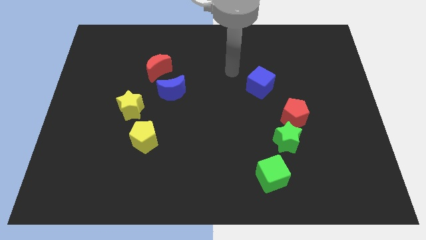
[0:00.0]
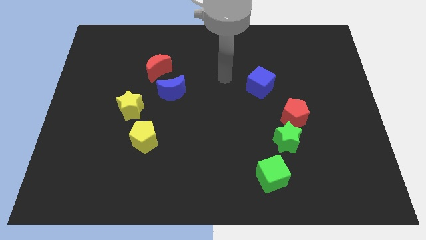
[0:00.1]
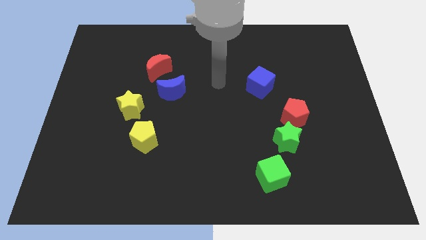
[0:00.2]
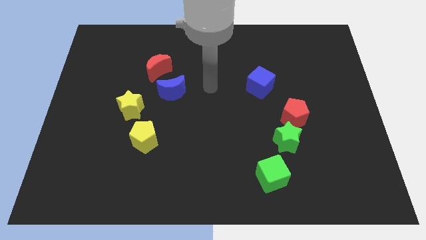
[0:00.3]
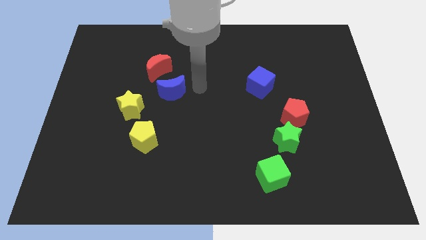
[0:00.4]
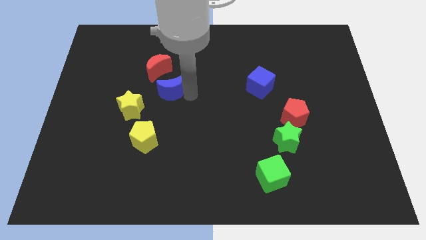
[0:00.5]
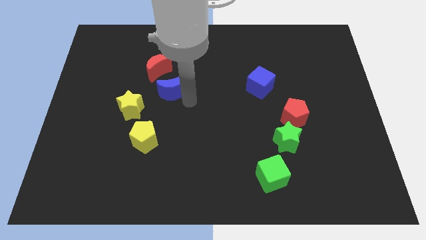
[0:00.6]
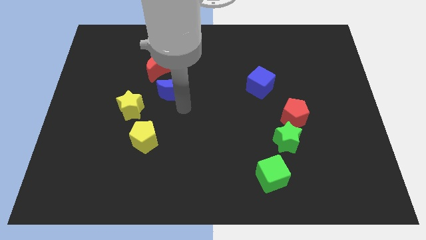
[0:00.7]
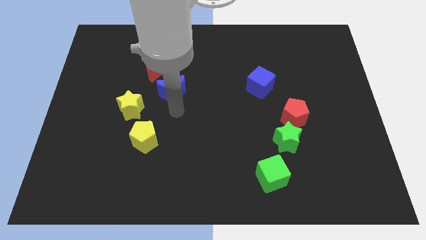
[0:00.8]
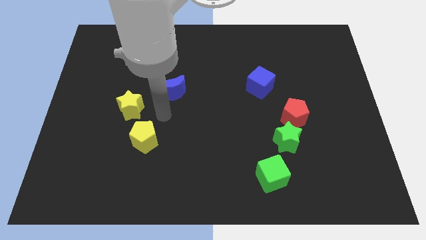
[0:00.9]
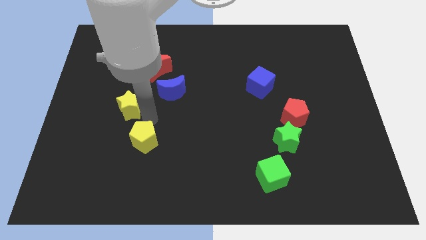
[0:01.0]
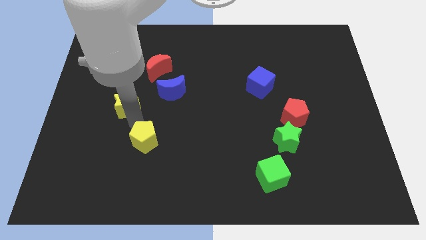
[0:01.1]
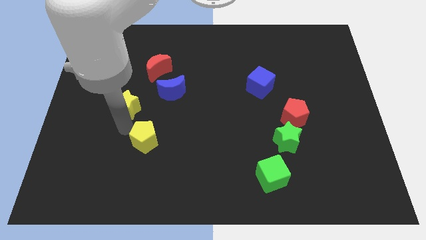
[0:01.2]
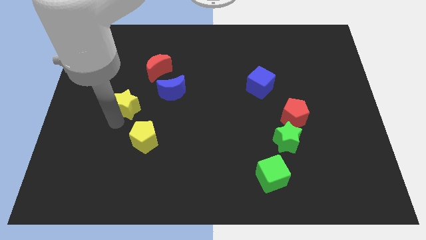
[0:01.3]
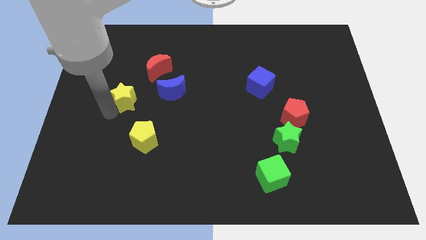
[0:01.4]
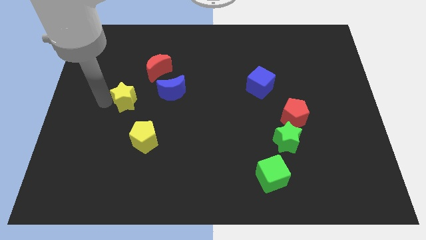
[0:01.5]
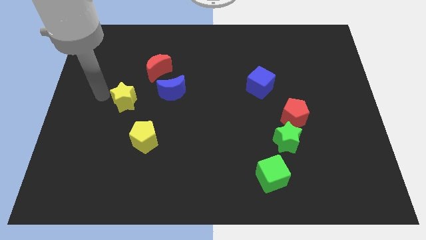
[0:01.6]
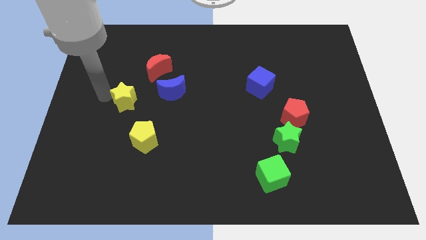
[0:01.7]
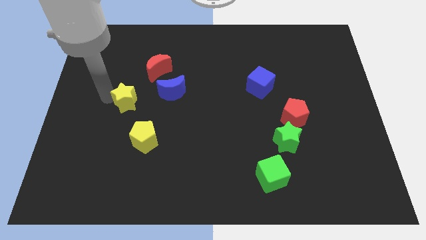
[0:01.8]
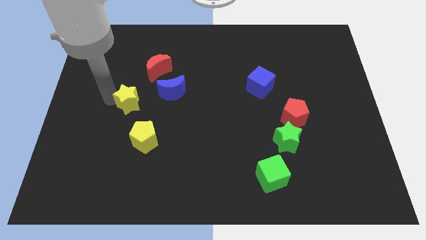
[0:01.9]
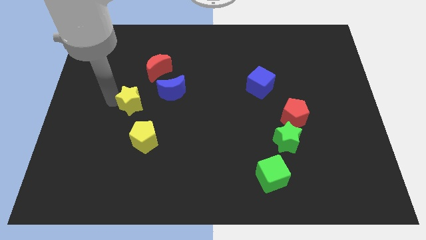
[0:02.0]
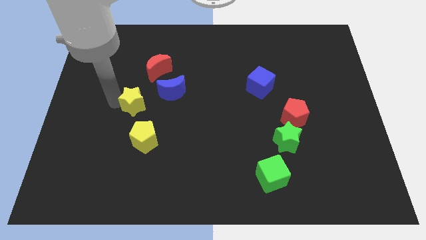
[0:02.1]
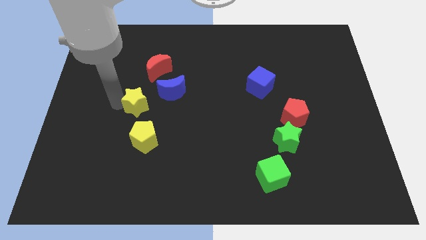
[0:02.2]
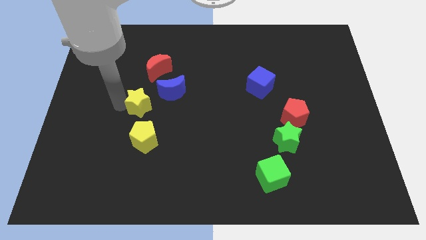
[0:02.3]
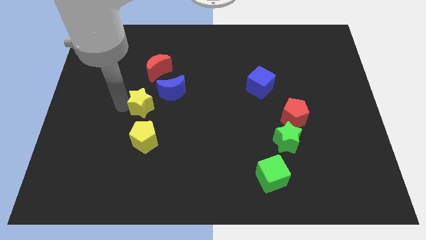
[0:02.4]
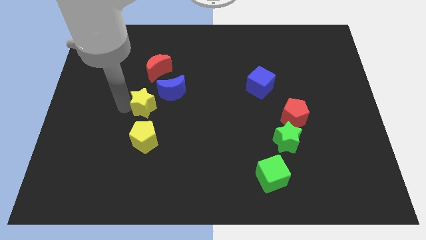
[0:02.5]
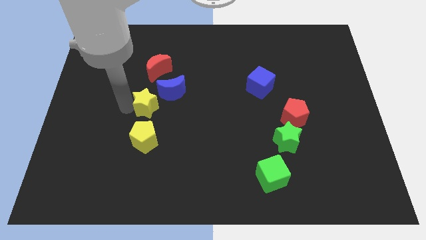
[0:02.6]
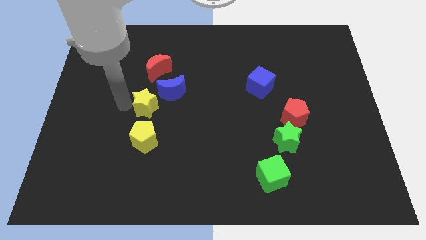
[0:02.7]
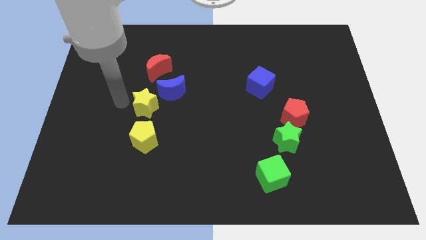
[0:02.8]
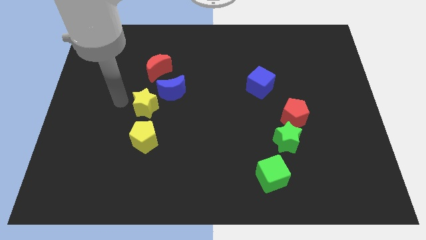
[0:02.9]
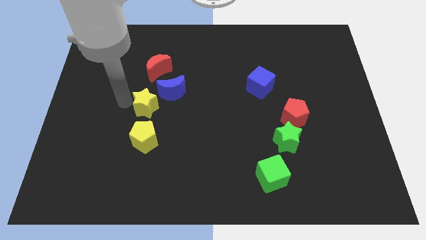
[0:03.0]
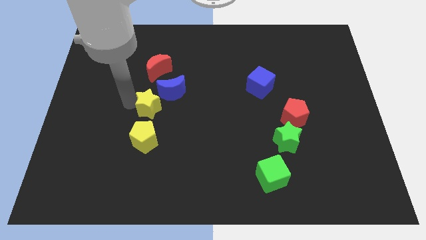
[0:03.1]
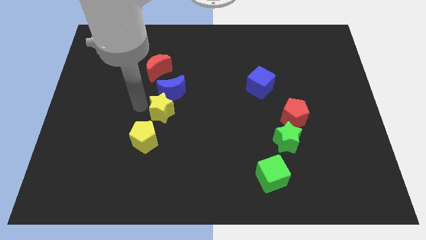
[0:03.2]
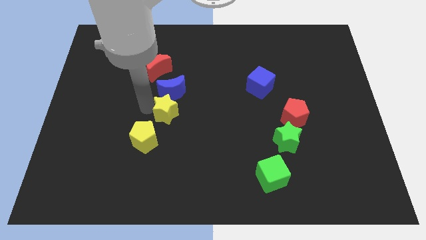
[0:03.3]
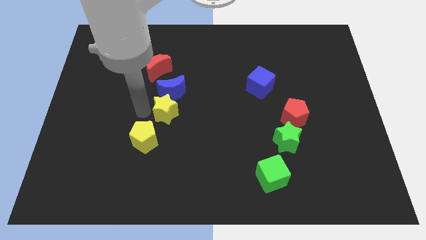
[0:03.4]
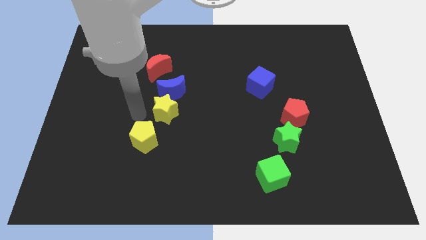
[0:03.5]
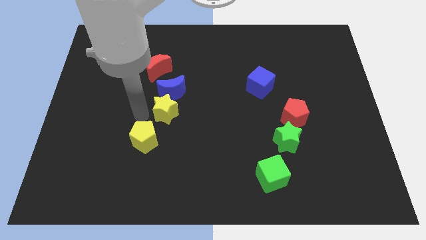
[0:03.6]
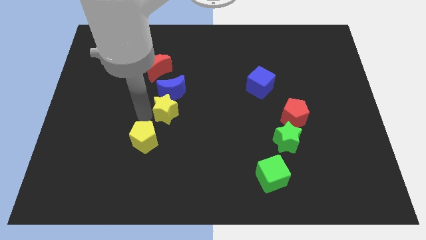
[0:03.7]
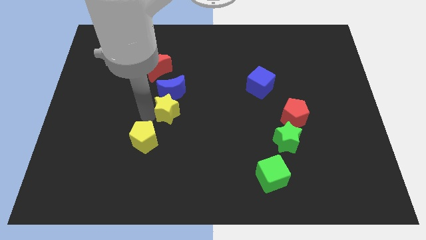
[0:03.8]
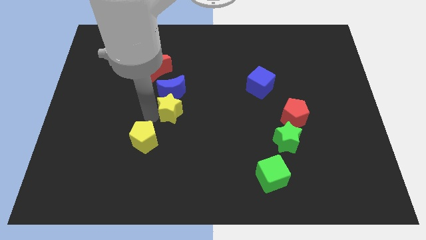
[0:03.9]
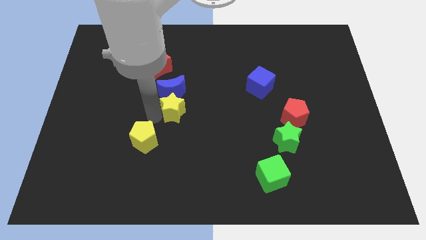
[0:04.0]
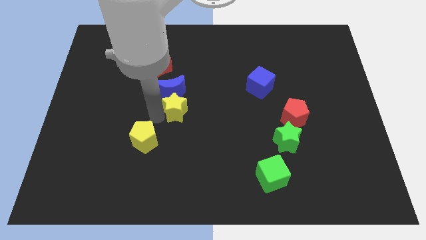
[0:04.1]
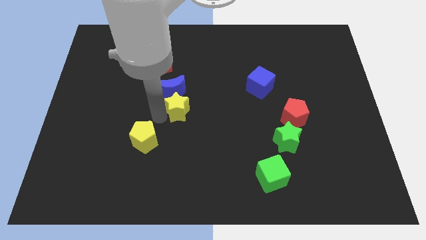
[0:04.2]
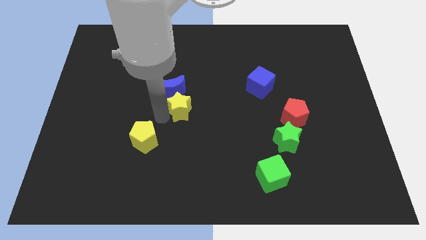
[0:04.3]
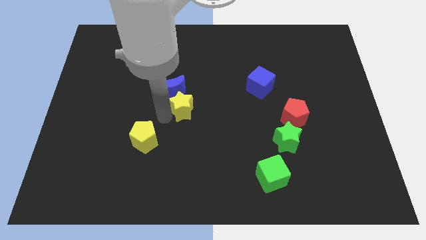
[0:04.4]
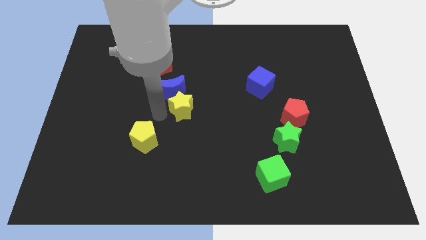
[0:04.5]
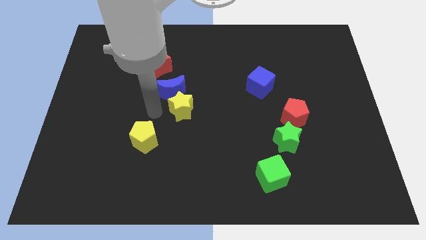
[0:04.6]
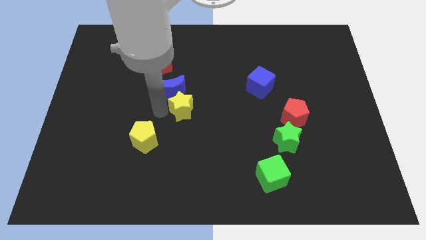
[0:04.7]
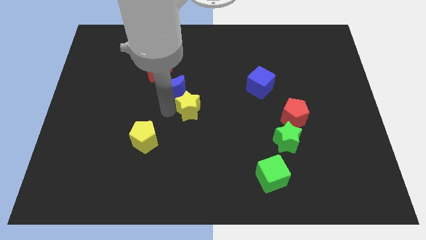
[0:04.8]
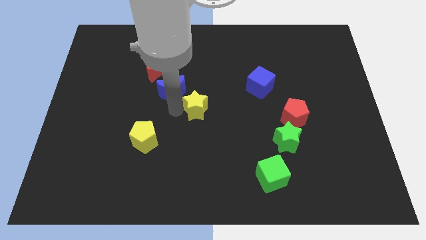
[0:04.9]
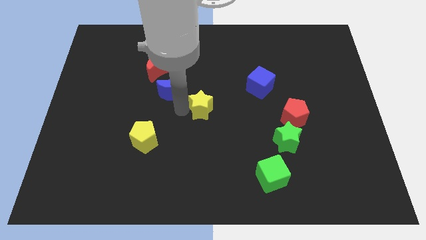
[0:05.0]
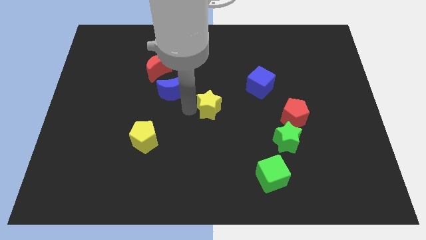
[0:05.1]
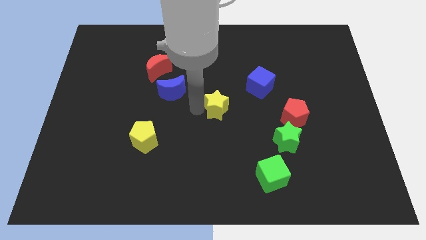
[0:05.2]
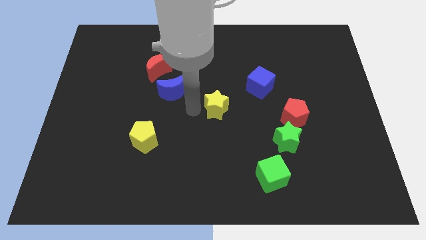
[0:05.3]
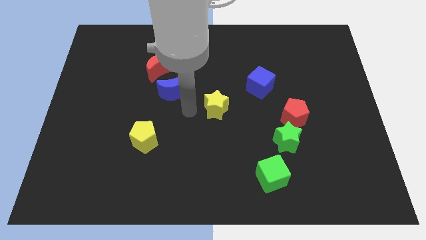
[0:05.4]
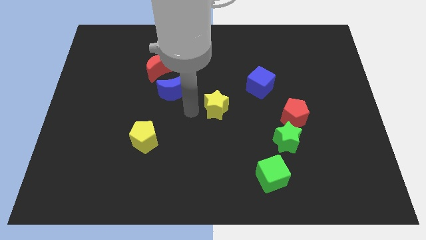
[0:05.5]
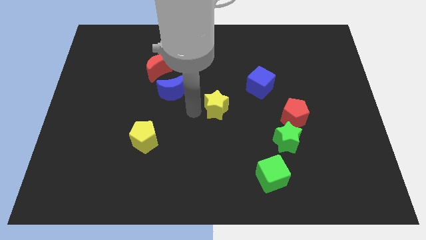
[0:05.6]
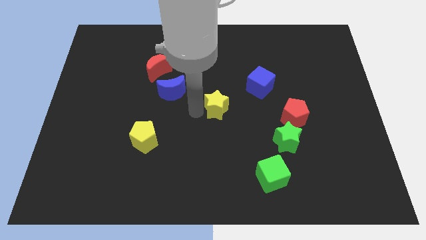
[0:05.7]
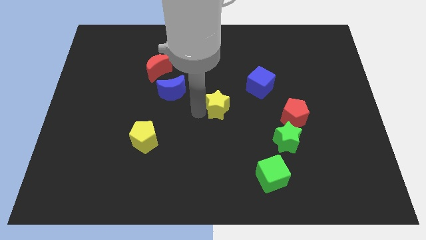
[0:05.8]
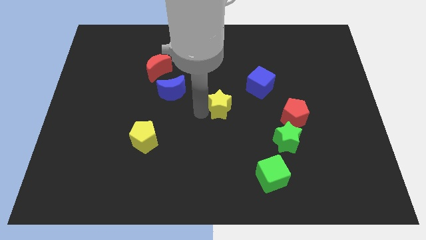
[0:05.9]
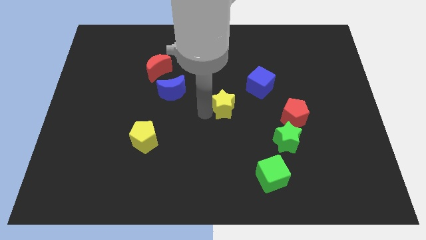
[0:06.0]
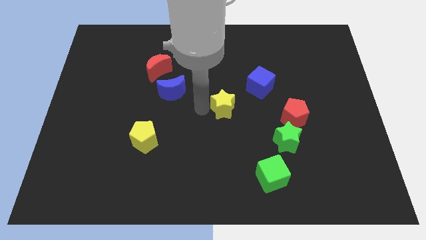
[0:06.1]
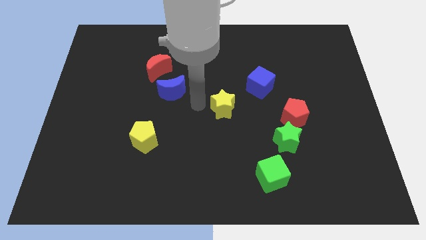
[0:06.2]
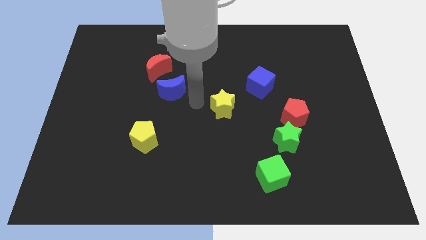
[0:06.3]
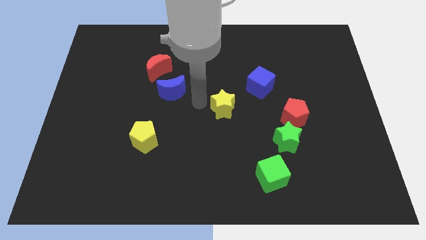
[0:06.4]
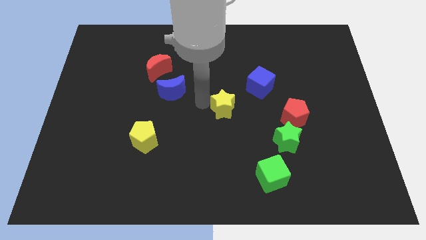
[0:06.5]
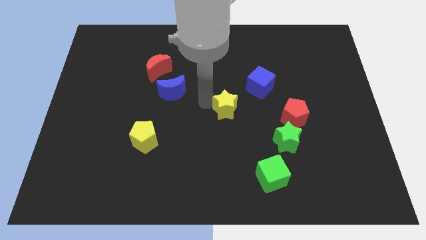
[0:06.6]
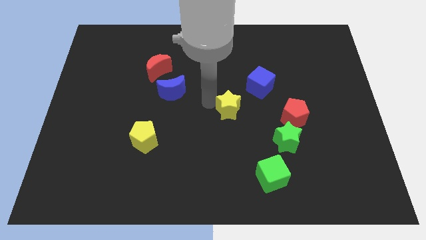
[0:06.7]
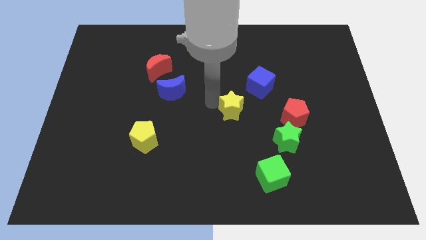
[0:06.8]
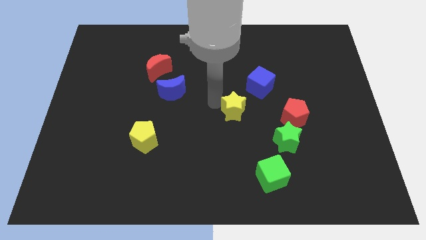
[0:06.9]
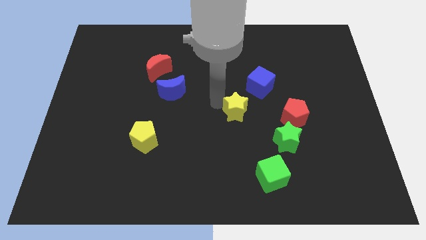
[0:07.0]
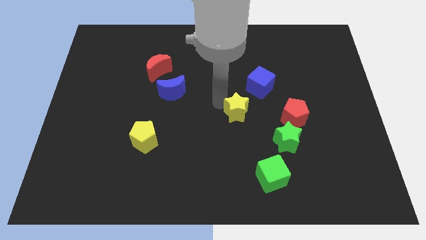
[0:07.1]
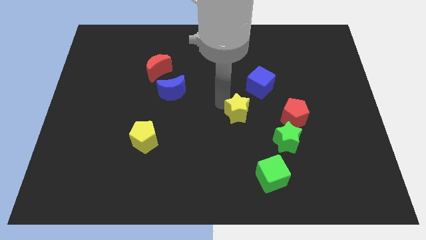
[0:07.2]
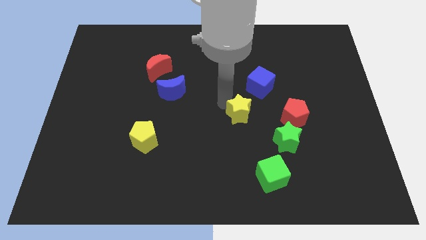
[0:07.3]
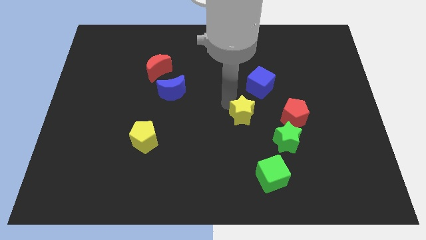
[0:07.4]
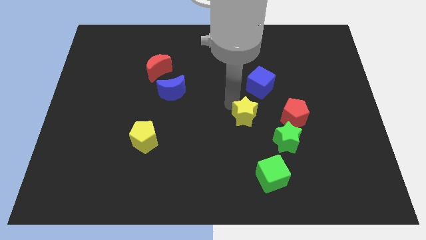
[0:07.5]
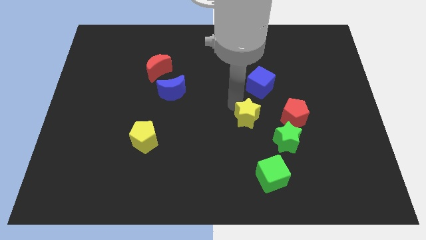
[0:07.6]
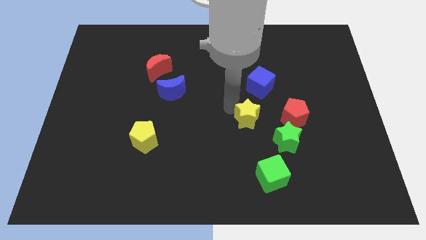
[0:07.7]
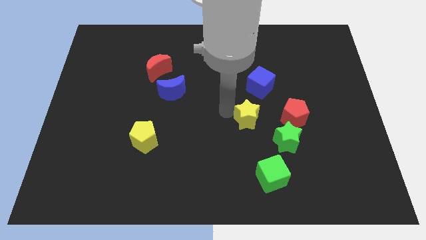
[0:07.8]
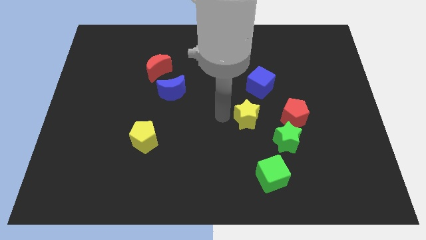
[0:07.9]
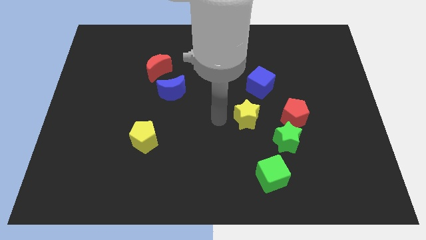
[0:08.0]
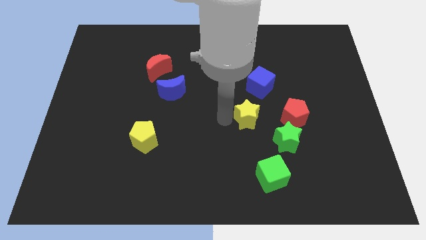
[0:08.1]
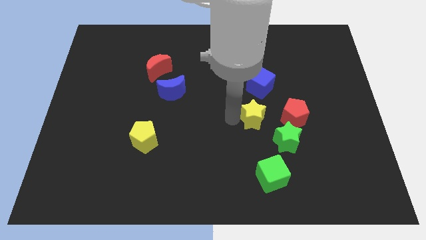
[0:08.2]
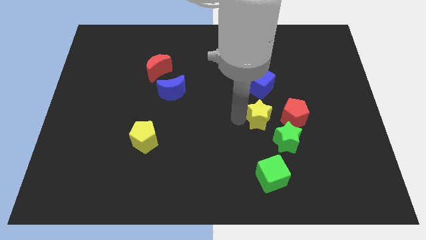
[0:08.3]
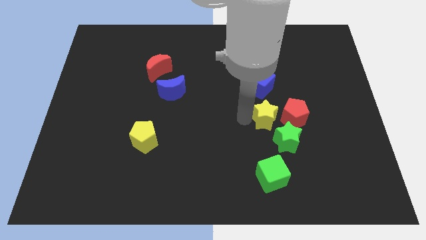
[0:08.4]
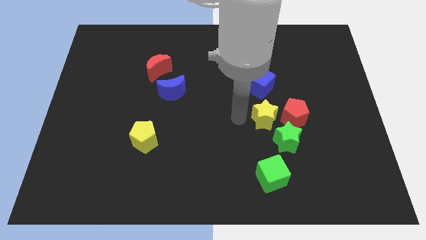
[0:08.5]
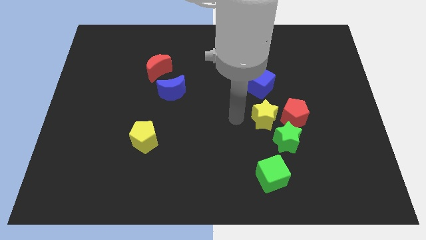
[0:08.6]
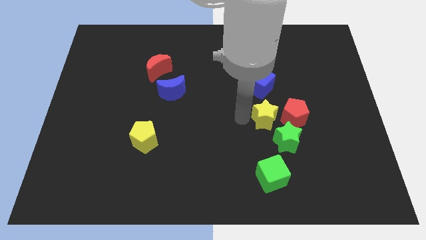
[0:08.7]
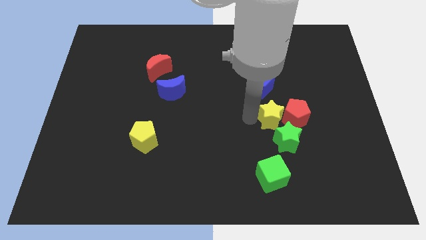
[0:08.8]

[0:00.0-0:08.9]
push the yellow star towards the red pentagon
